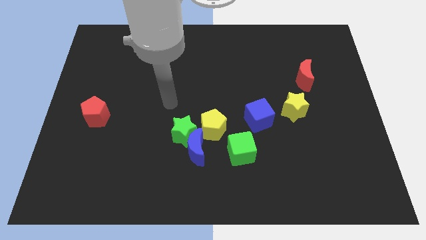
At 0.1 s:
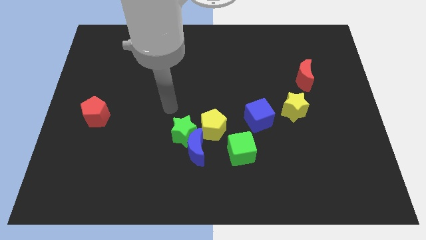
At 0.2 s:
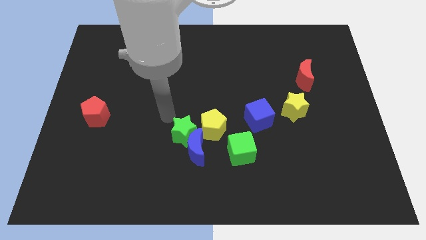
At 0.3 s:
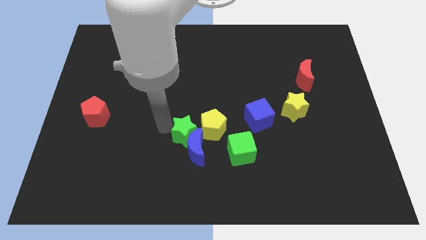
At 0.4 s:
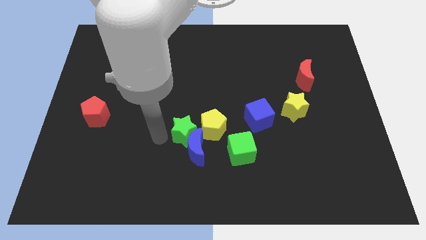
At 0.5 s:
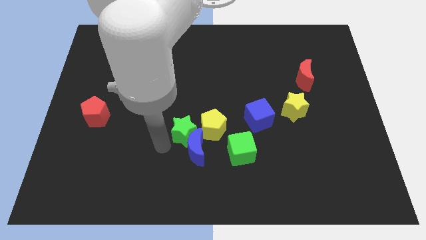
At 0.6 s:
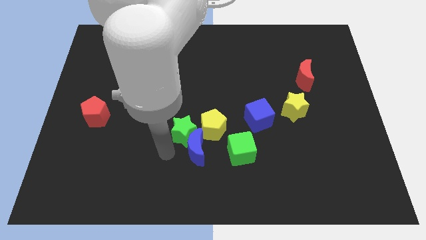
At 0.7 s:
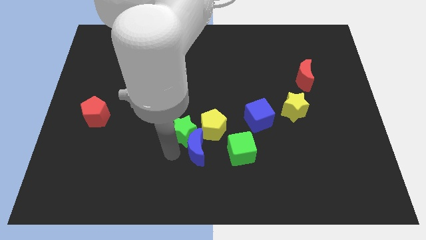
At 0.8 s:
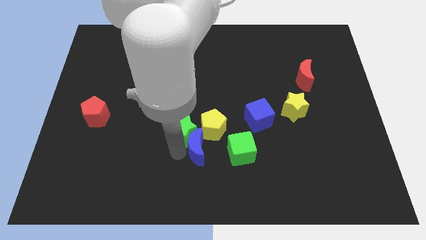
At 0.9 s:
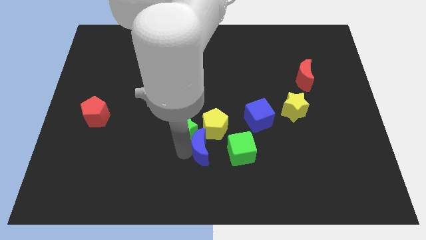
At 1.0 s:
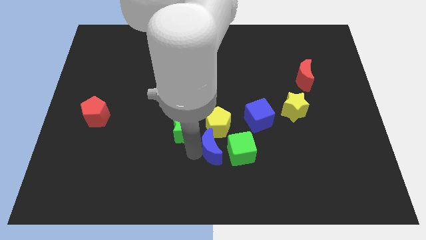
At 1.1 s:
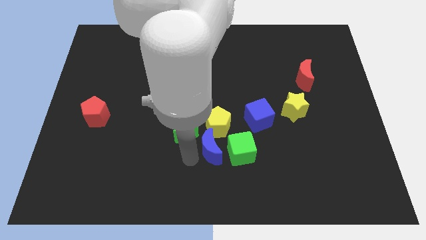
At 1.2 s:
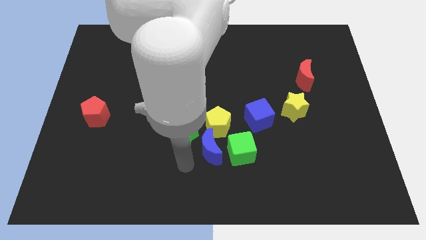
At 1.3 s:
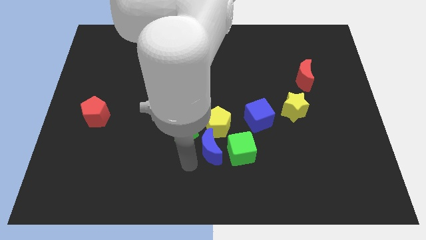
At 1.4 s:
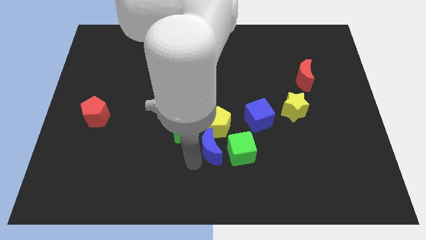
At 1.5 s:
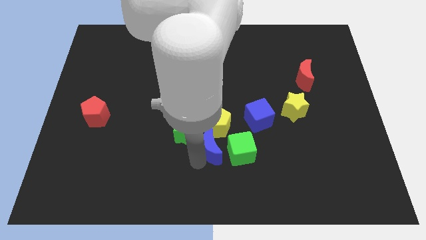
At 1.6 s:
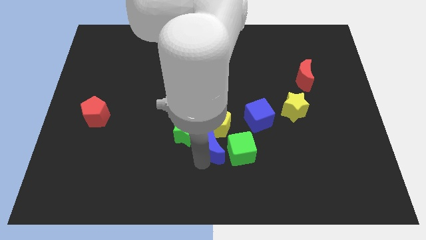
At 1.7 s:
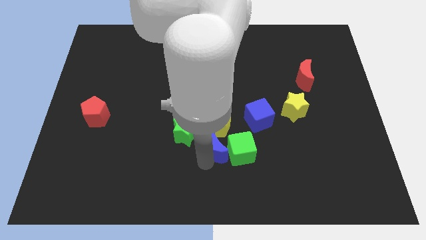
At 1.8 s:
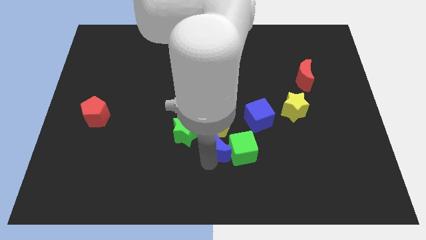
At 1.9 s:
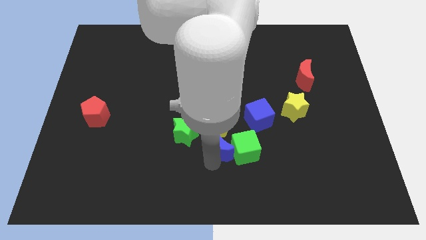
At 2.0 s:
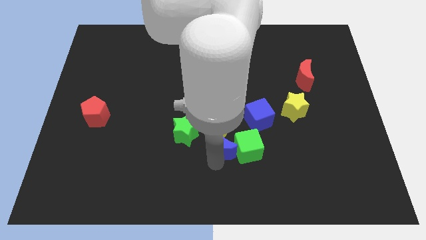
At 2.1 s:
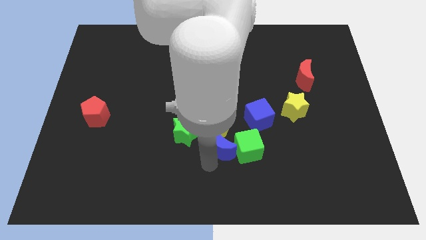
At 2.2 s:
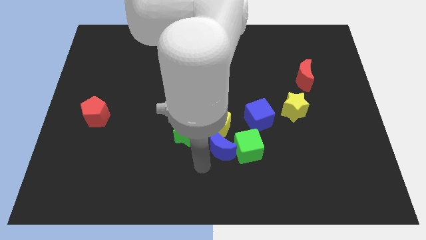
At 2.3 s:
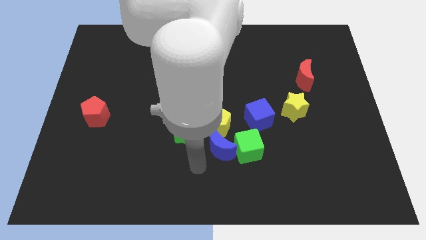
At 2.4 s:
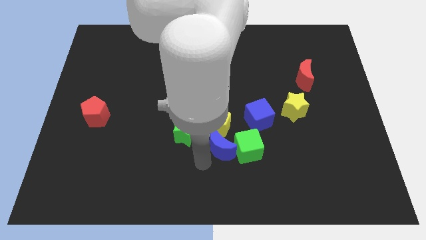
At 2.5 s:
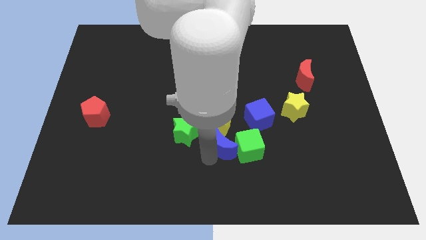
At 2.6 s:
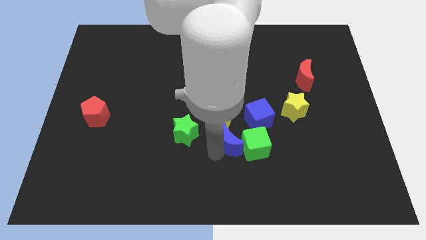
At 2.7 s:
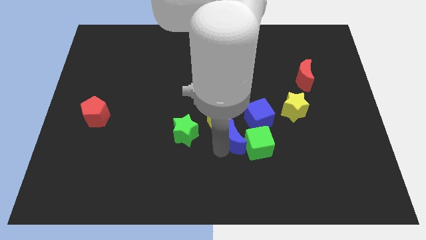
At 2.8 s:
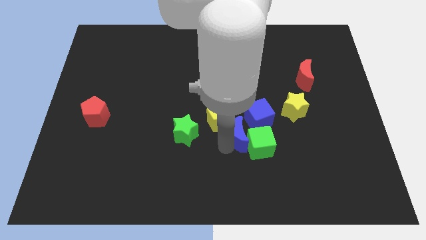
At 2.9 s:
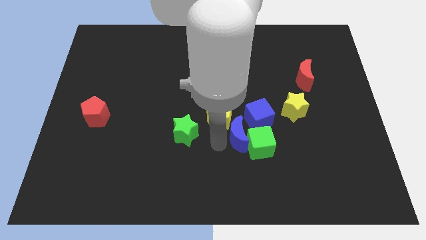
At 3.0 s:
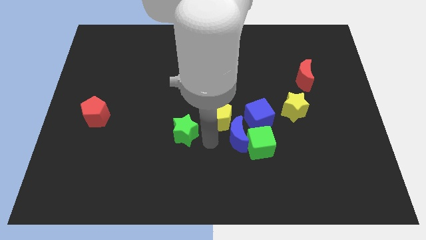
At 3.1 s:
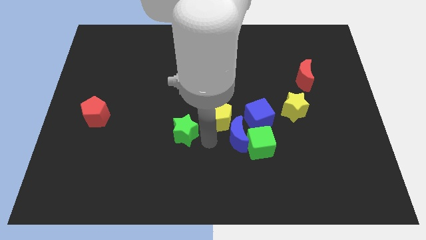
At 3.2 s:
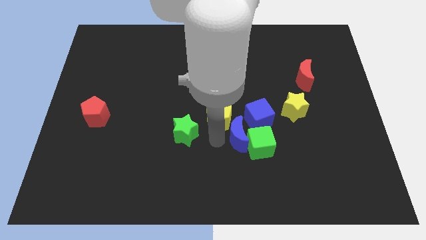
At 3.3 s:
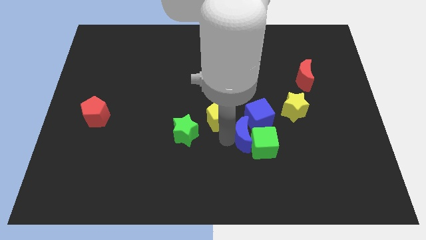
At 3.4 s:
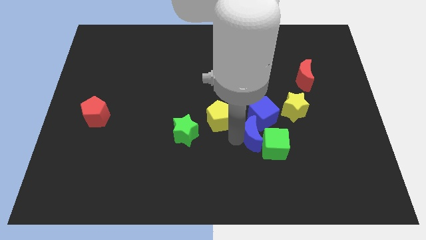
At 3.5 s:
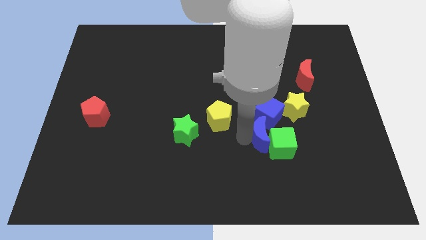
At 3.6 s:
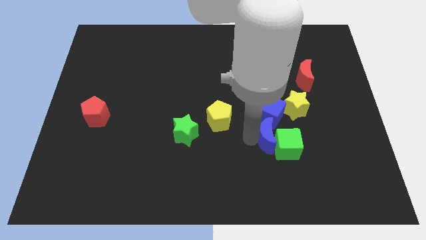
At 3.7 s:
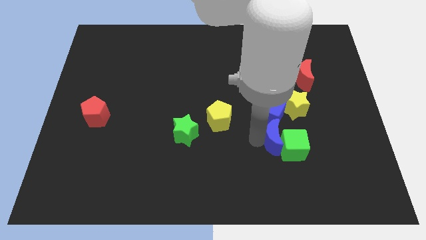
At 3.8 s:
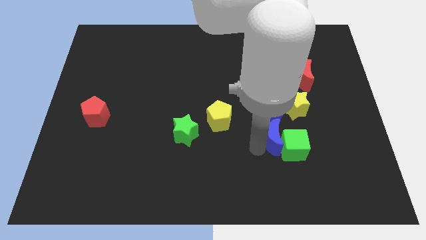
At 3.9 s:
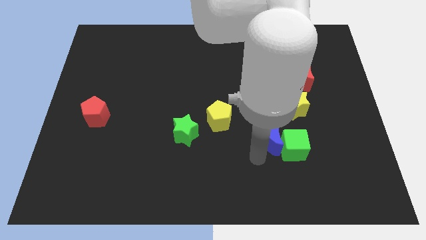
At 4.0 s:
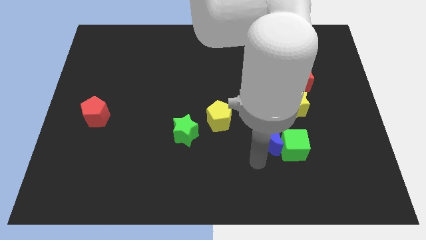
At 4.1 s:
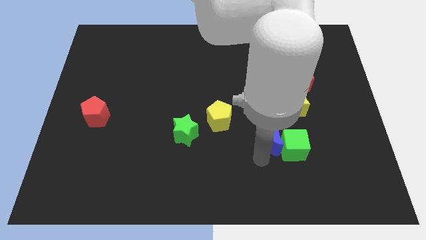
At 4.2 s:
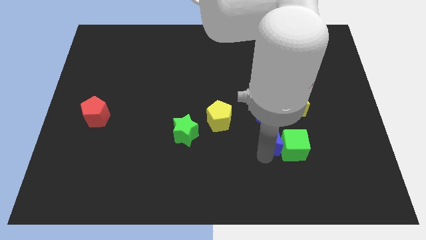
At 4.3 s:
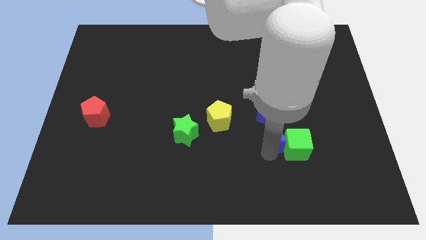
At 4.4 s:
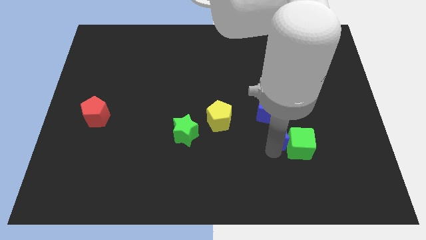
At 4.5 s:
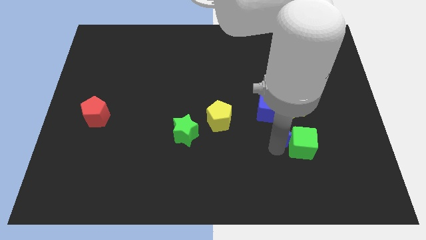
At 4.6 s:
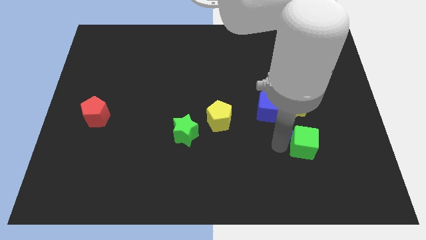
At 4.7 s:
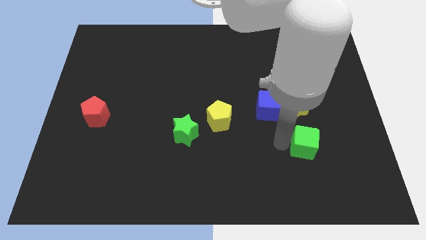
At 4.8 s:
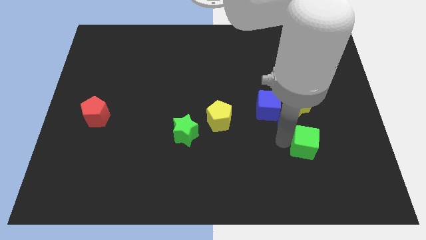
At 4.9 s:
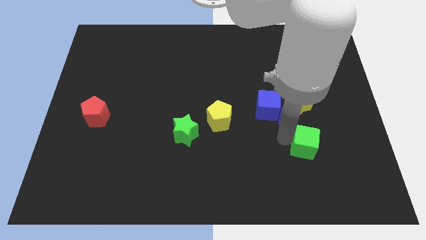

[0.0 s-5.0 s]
put the blue moon next to the yellow star

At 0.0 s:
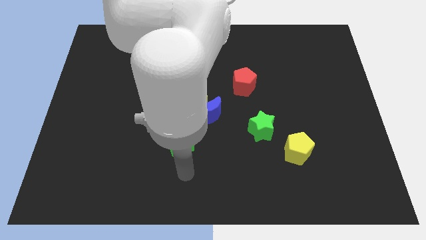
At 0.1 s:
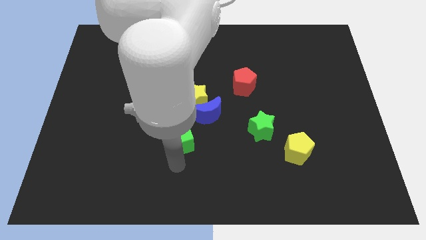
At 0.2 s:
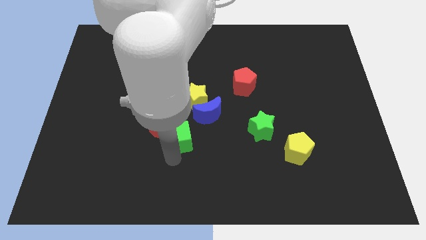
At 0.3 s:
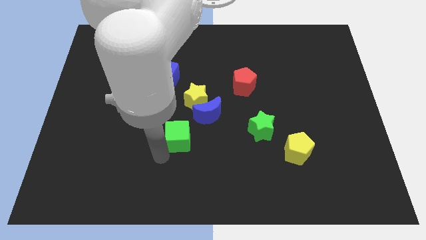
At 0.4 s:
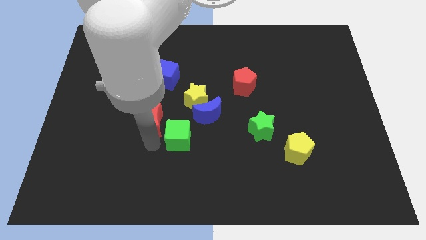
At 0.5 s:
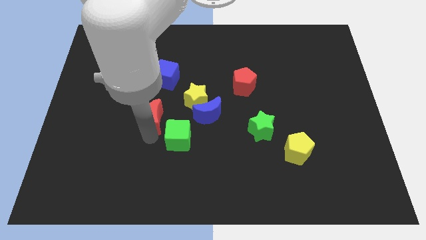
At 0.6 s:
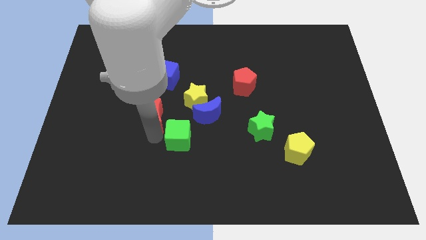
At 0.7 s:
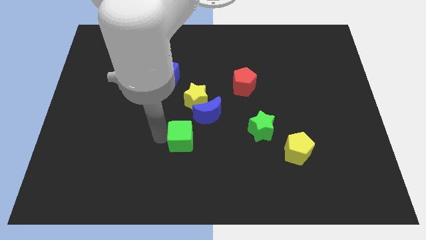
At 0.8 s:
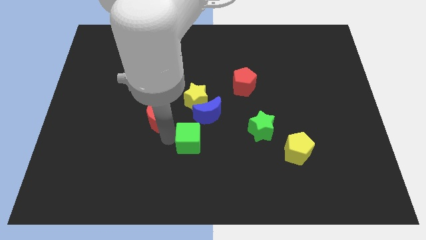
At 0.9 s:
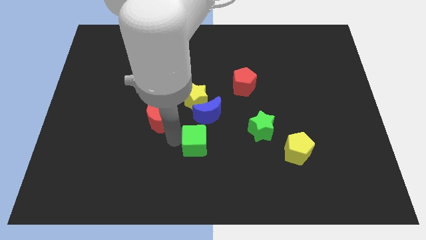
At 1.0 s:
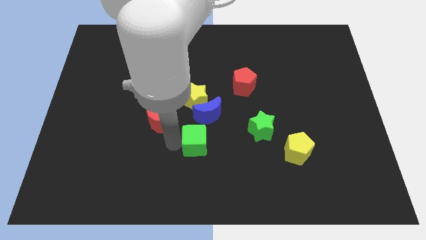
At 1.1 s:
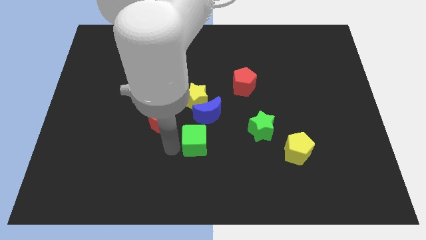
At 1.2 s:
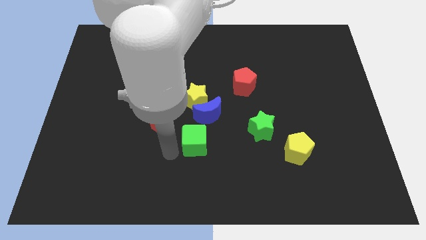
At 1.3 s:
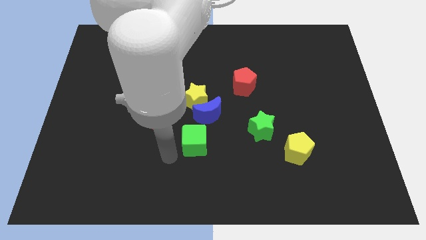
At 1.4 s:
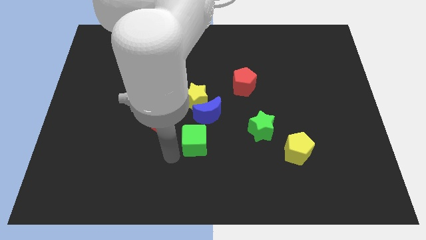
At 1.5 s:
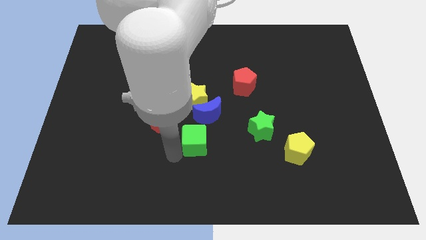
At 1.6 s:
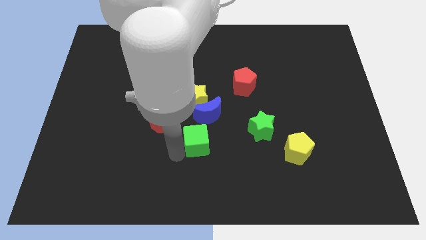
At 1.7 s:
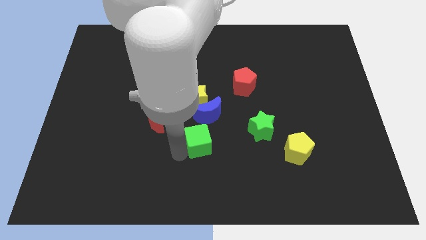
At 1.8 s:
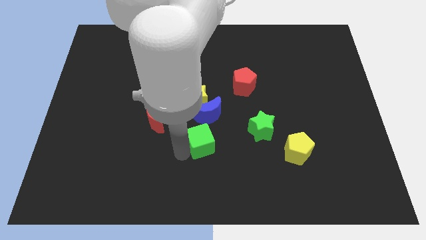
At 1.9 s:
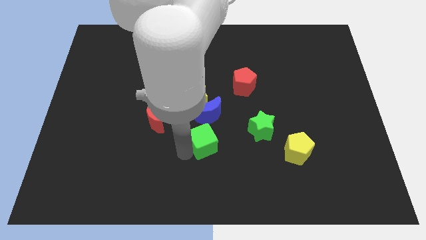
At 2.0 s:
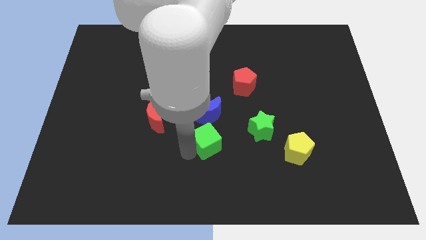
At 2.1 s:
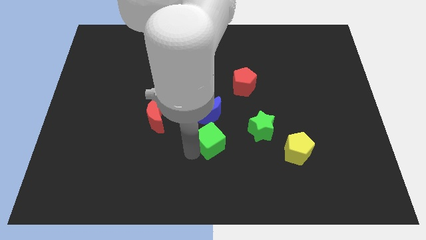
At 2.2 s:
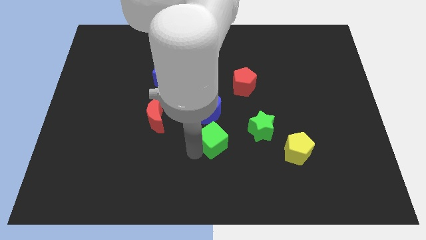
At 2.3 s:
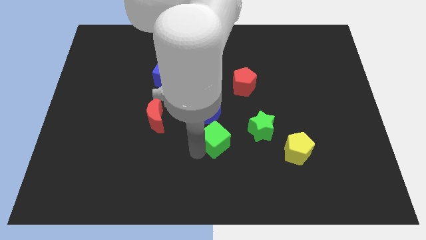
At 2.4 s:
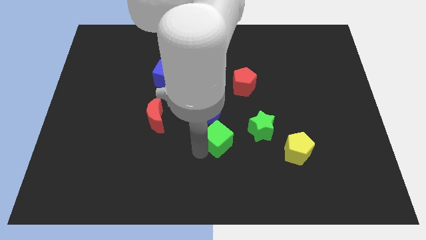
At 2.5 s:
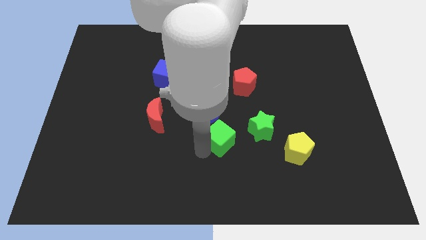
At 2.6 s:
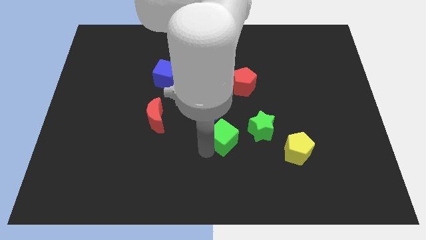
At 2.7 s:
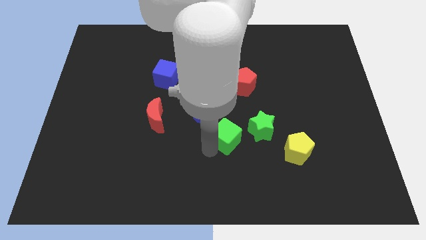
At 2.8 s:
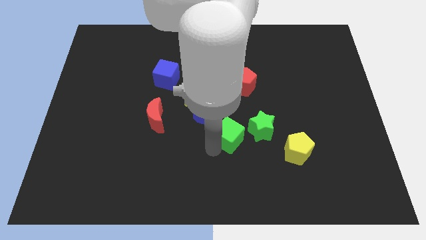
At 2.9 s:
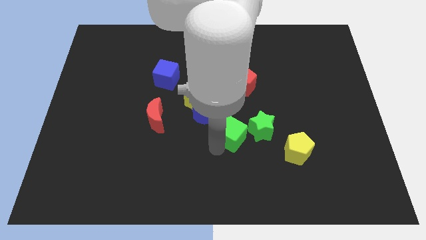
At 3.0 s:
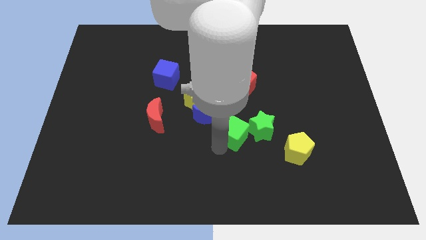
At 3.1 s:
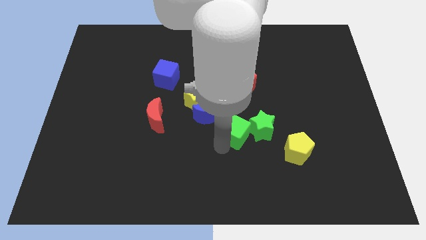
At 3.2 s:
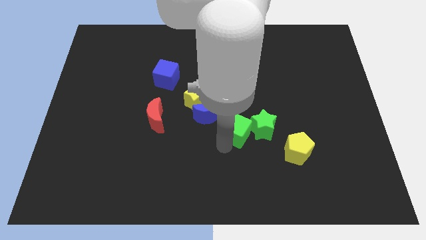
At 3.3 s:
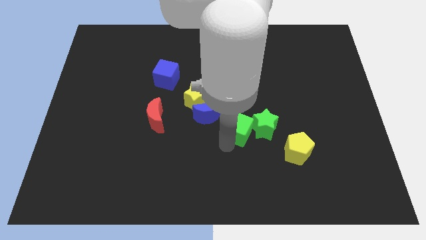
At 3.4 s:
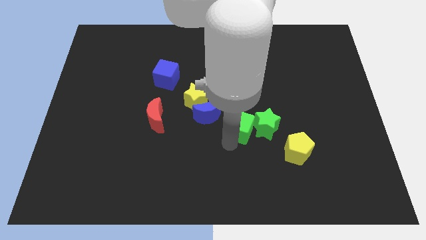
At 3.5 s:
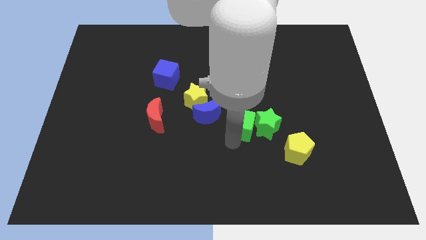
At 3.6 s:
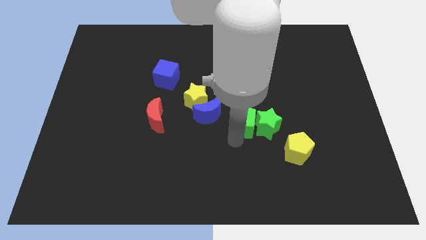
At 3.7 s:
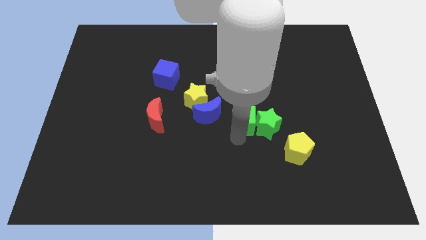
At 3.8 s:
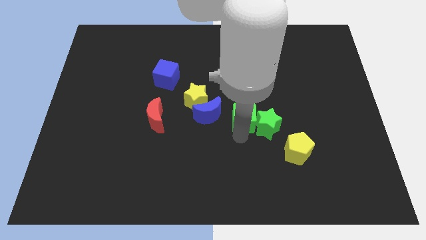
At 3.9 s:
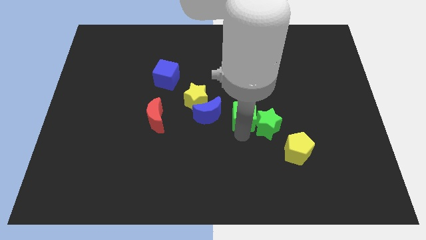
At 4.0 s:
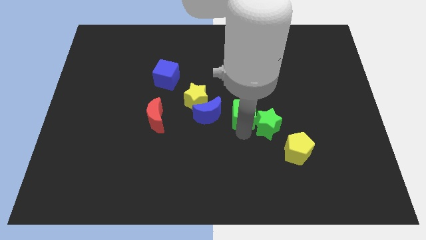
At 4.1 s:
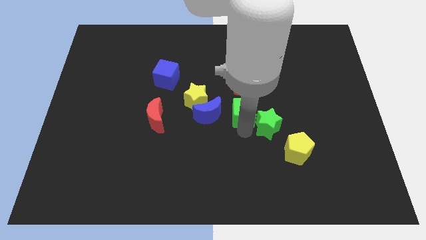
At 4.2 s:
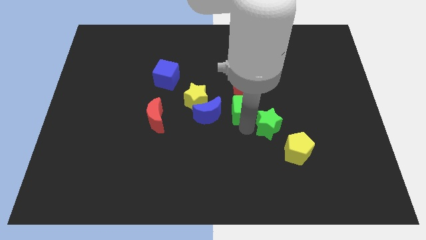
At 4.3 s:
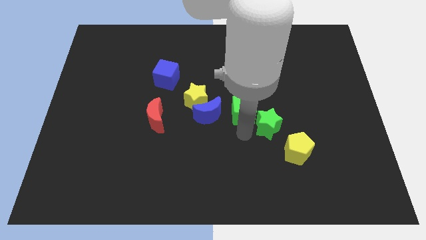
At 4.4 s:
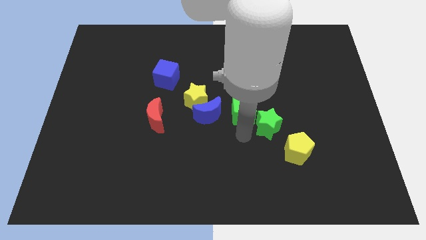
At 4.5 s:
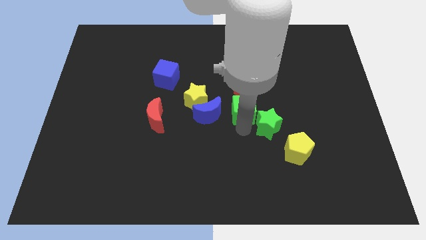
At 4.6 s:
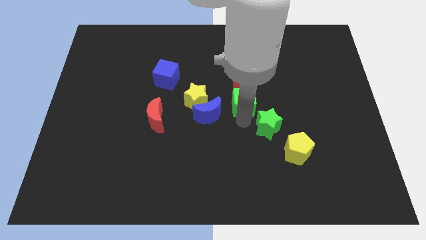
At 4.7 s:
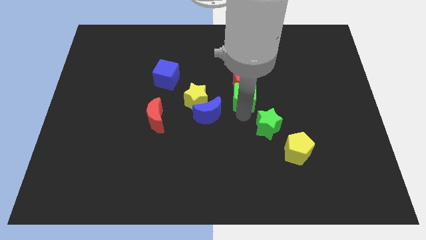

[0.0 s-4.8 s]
push the green cube towards the red pentagon
